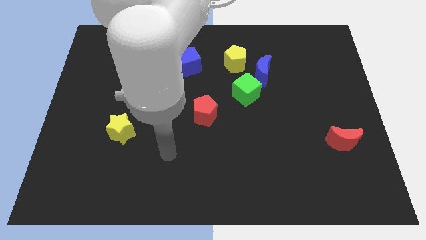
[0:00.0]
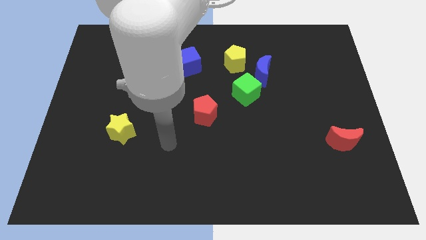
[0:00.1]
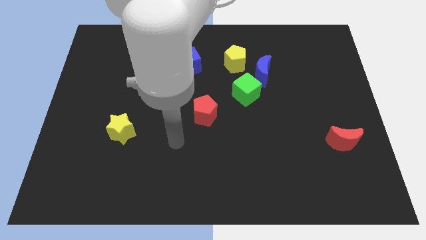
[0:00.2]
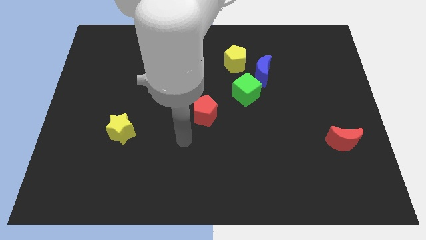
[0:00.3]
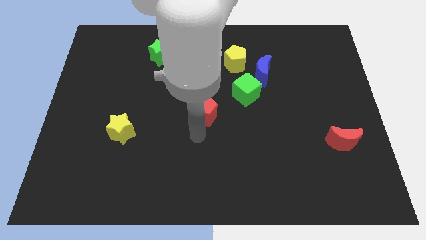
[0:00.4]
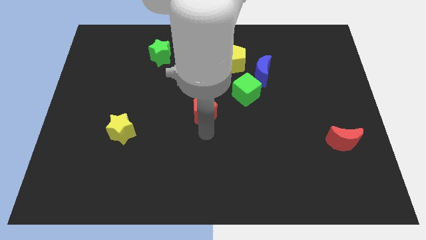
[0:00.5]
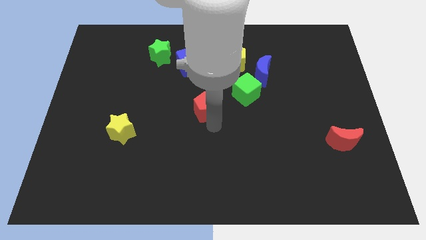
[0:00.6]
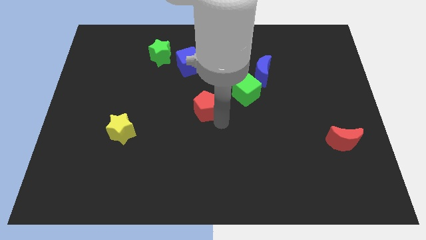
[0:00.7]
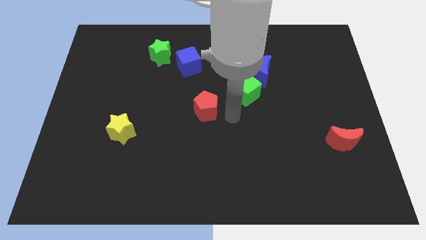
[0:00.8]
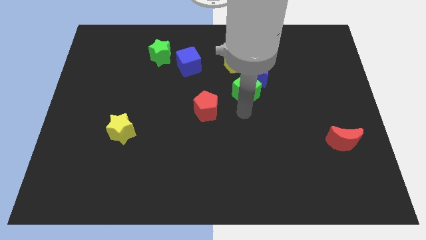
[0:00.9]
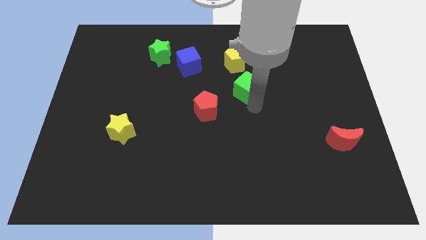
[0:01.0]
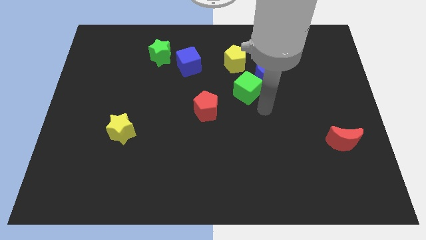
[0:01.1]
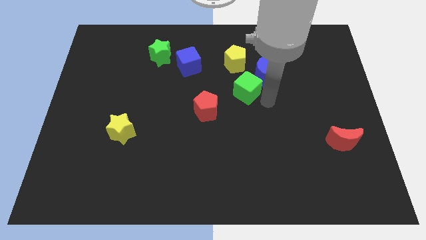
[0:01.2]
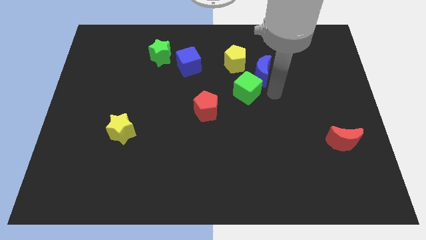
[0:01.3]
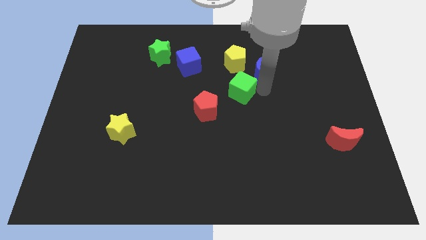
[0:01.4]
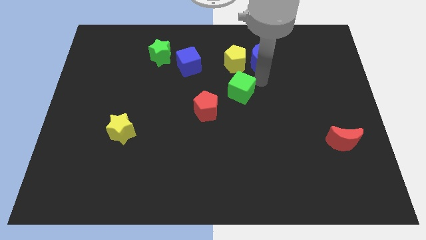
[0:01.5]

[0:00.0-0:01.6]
separate the green cube from the blue moon

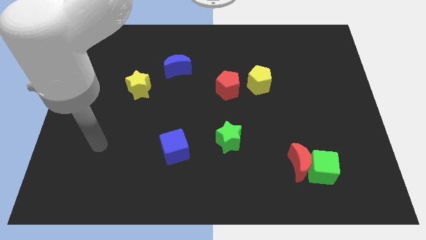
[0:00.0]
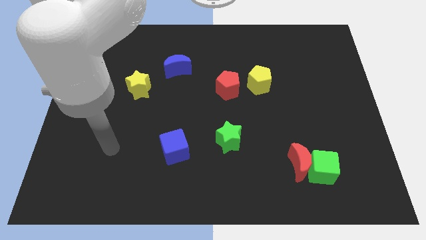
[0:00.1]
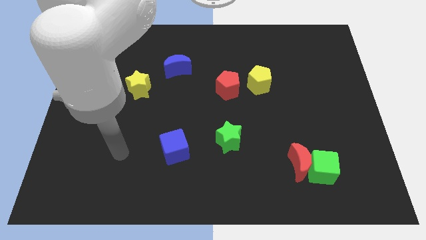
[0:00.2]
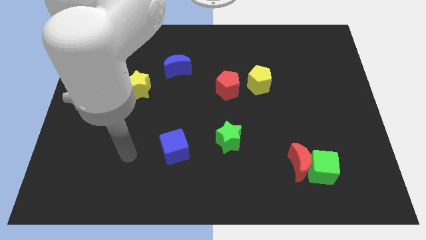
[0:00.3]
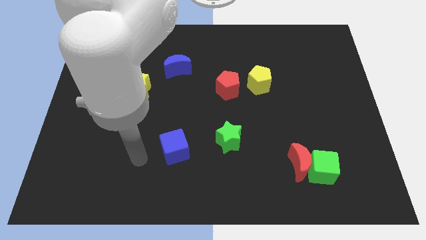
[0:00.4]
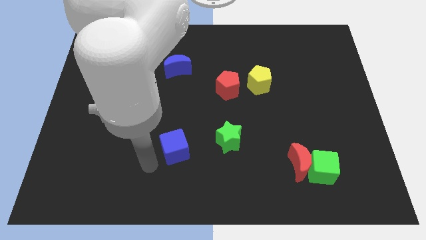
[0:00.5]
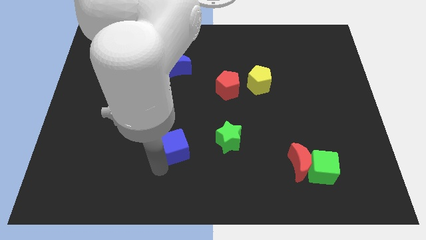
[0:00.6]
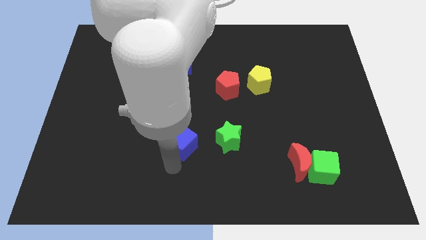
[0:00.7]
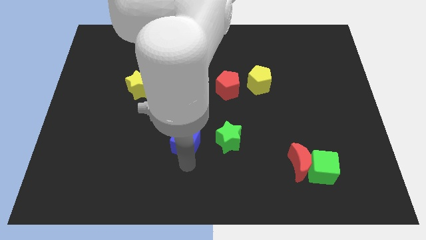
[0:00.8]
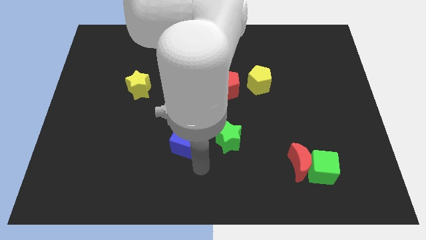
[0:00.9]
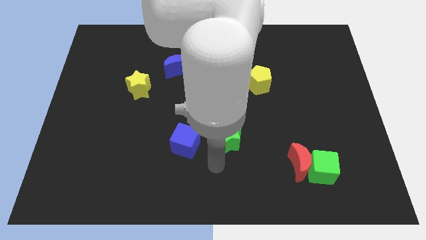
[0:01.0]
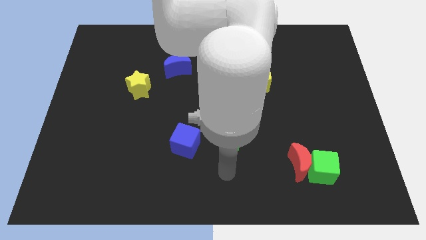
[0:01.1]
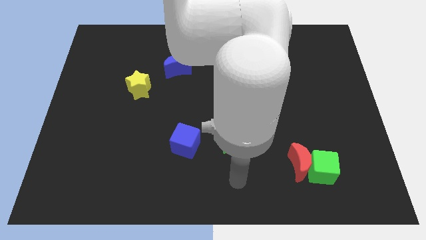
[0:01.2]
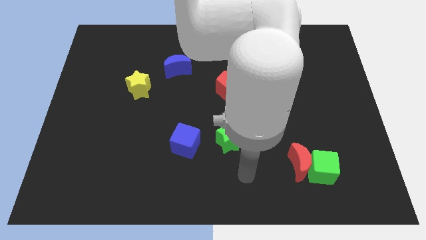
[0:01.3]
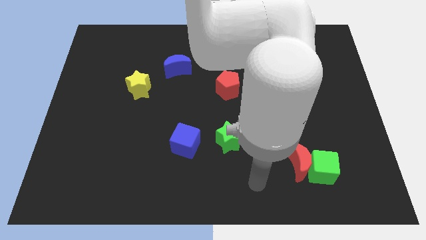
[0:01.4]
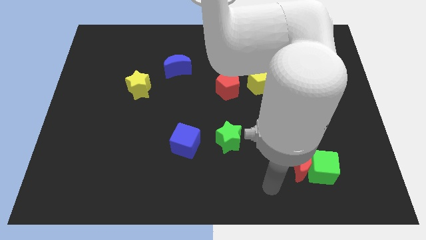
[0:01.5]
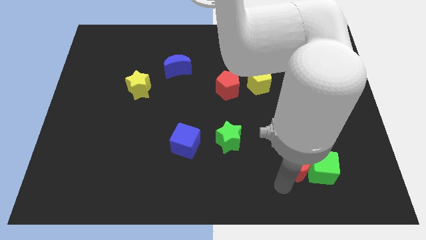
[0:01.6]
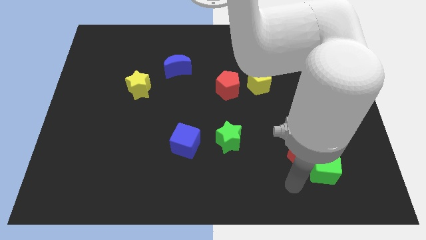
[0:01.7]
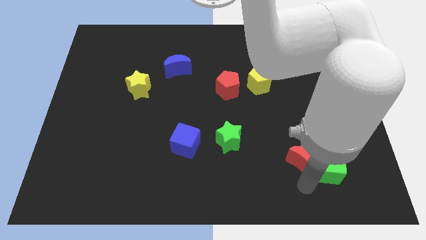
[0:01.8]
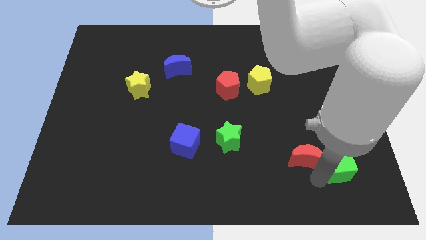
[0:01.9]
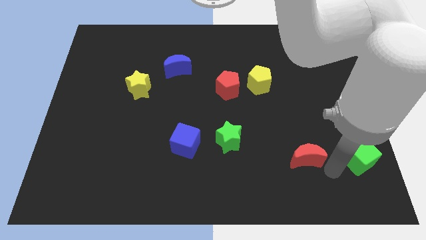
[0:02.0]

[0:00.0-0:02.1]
separate the red moon from the green cube

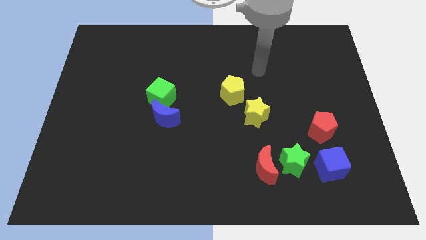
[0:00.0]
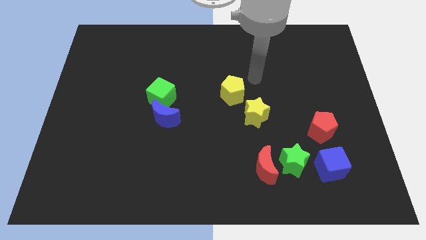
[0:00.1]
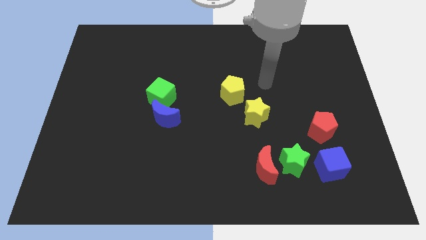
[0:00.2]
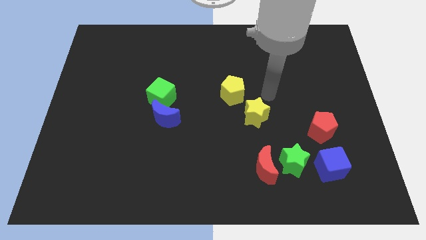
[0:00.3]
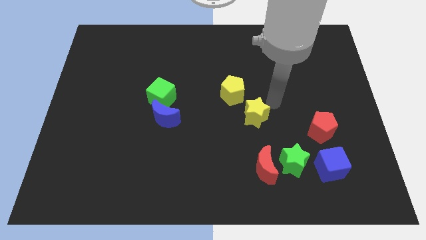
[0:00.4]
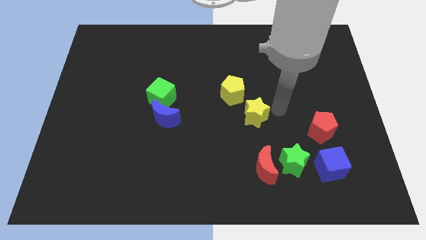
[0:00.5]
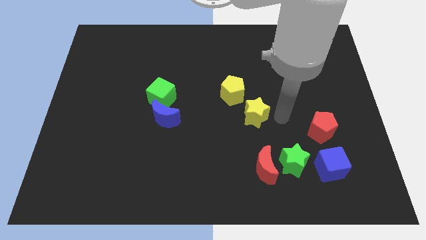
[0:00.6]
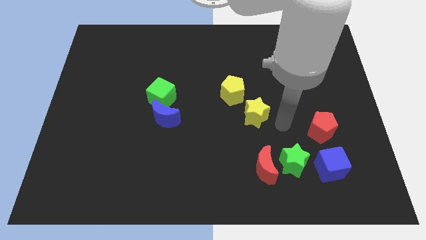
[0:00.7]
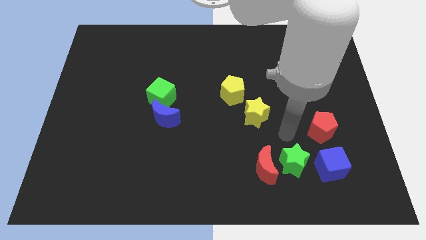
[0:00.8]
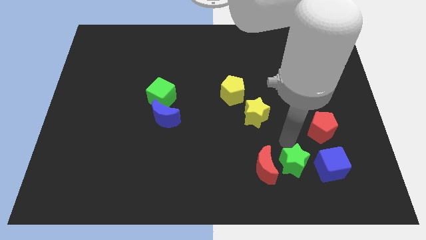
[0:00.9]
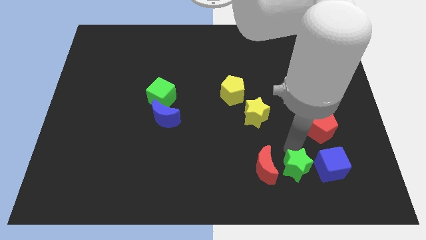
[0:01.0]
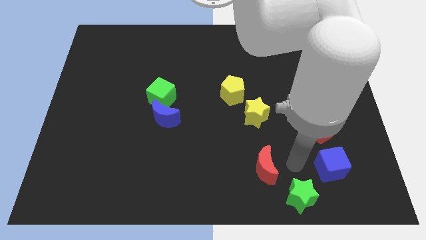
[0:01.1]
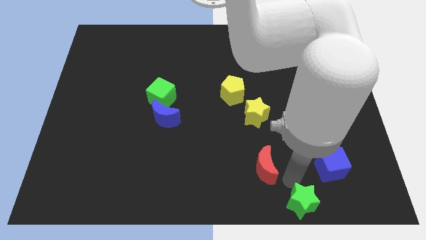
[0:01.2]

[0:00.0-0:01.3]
separate the red moon from the green star

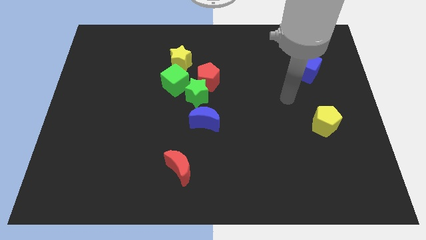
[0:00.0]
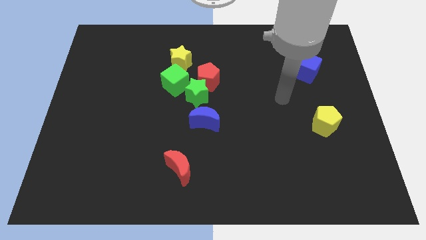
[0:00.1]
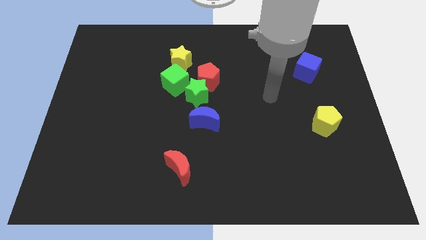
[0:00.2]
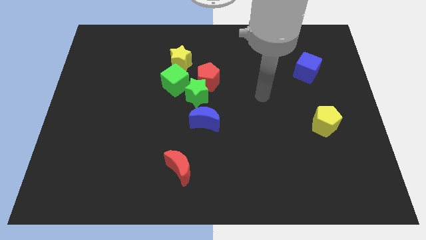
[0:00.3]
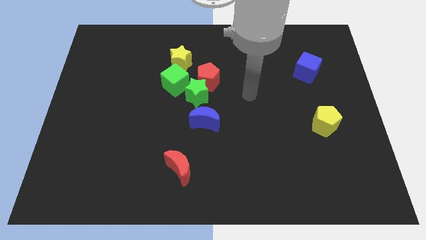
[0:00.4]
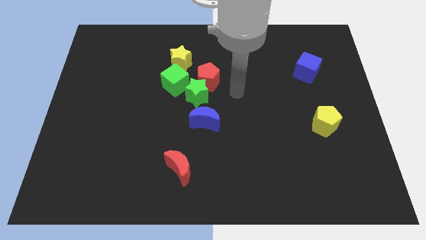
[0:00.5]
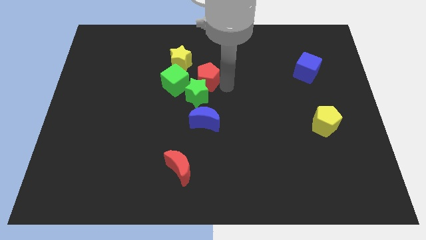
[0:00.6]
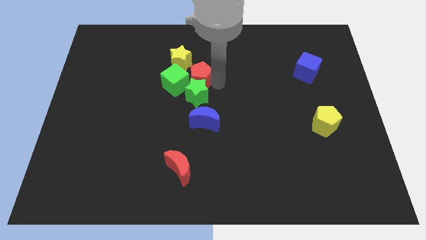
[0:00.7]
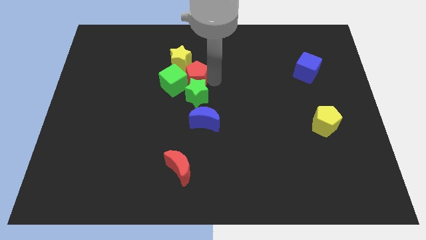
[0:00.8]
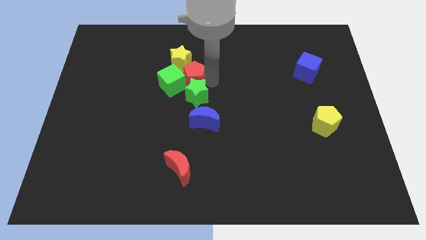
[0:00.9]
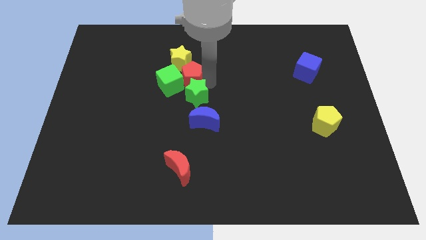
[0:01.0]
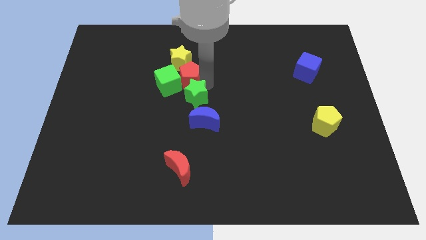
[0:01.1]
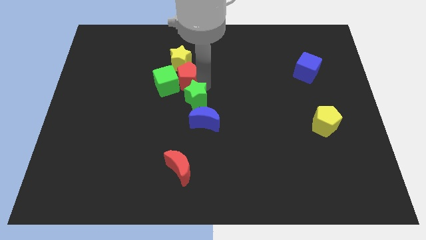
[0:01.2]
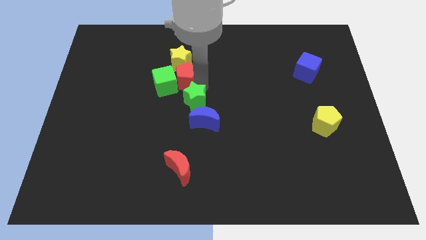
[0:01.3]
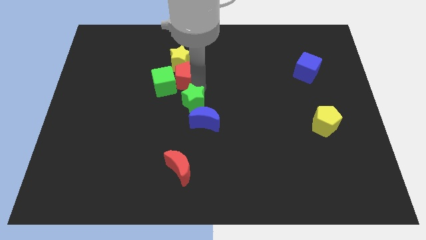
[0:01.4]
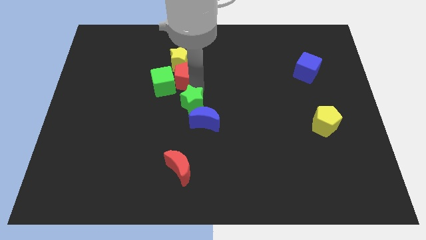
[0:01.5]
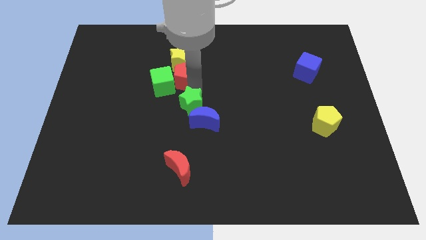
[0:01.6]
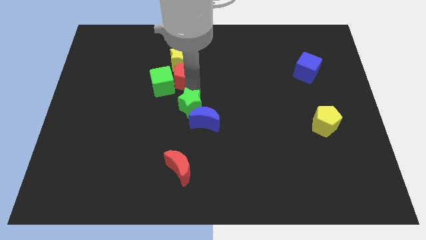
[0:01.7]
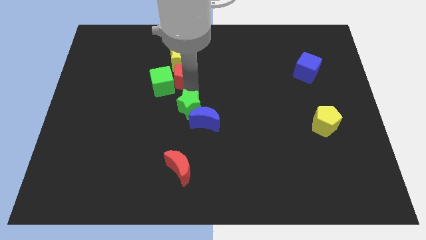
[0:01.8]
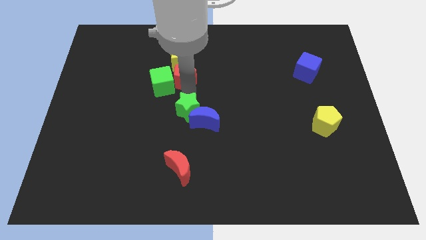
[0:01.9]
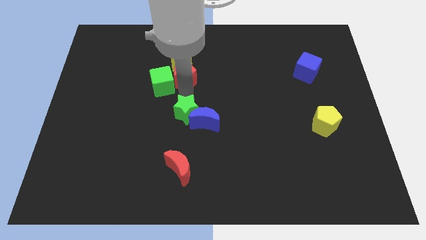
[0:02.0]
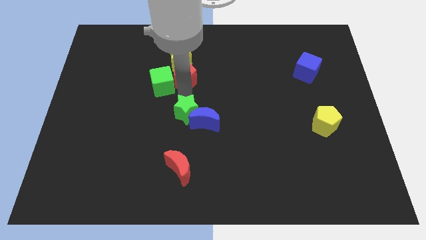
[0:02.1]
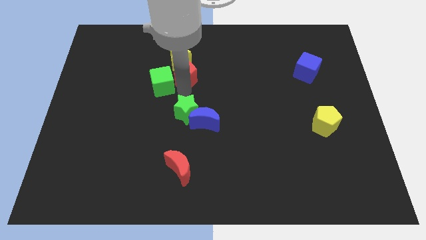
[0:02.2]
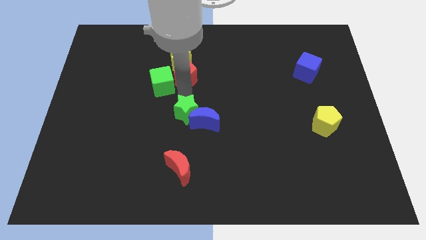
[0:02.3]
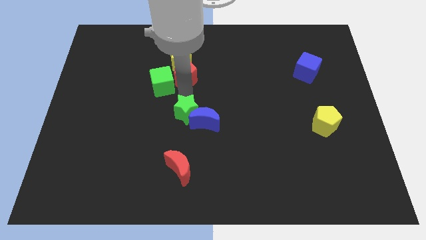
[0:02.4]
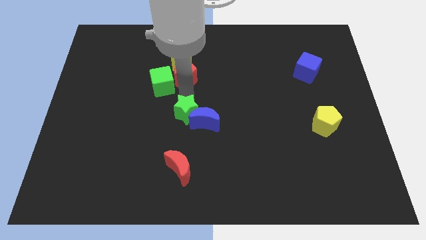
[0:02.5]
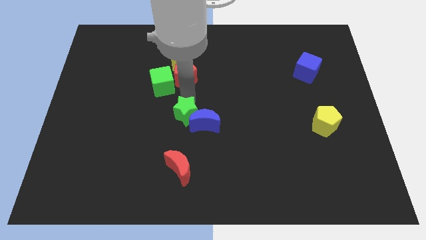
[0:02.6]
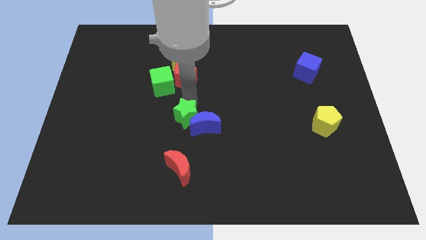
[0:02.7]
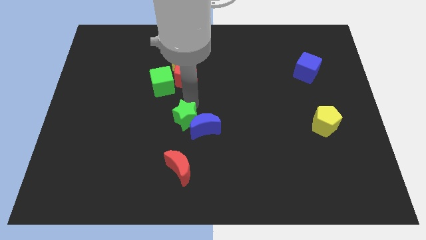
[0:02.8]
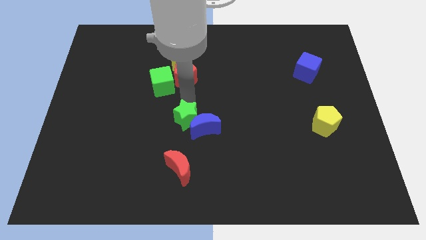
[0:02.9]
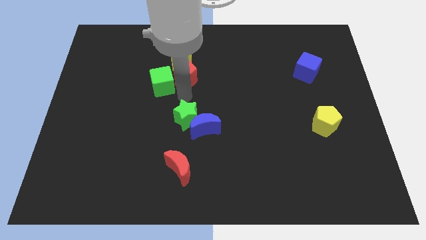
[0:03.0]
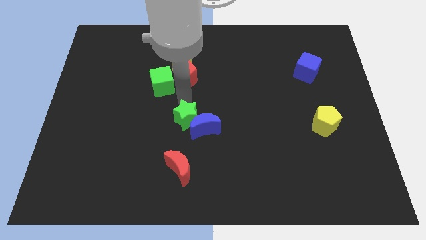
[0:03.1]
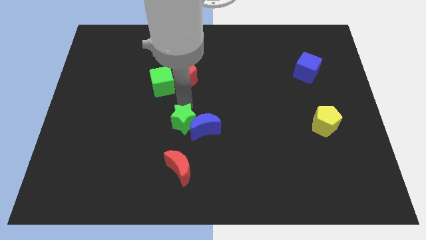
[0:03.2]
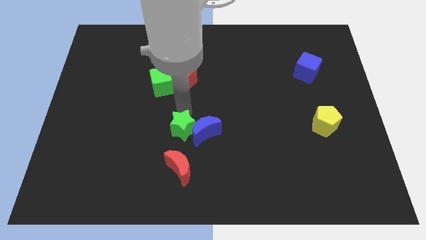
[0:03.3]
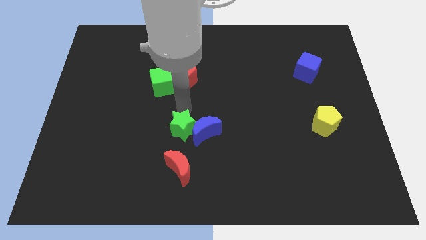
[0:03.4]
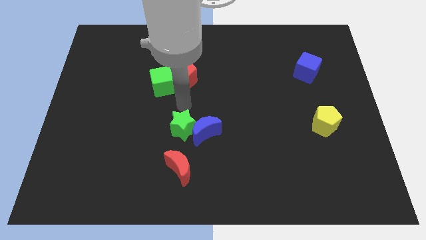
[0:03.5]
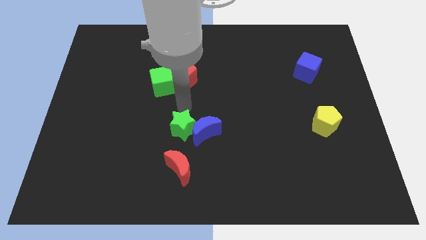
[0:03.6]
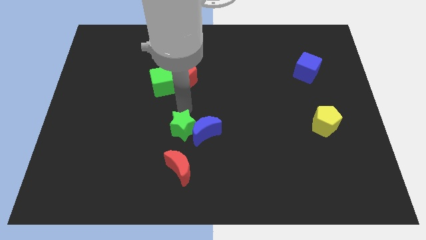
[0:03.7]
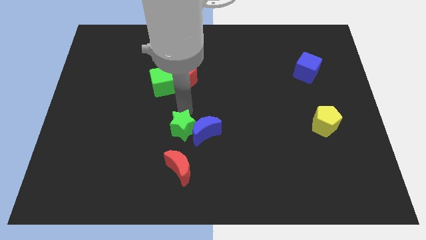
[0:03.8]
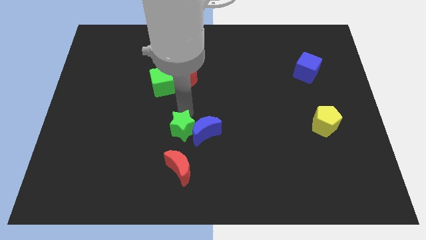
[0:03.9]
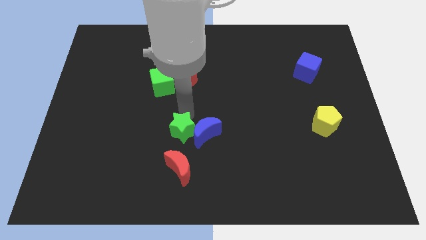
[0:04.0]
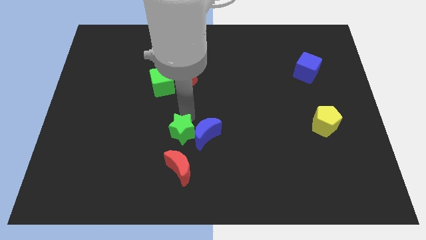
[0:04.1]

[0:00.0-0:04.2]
move the green star away from the red pentagon, green cube, and blue moon
